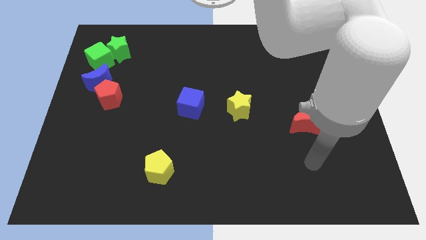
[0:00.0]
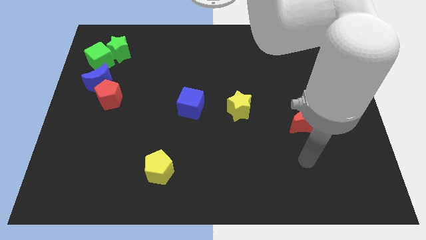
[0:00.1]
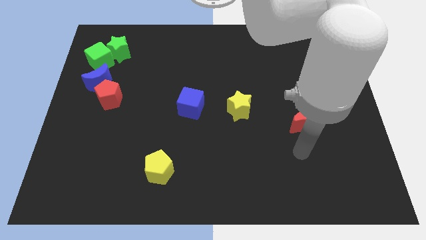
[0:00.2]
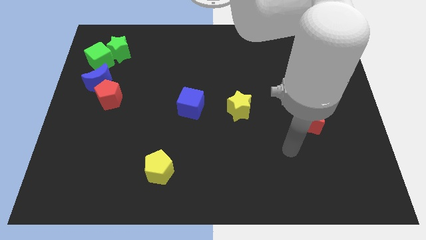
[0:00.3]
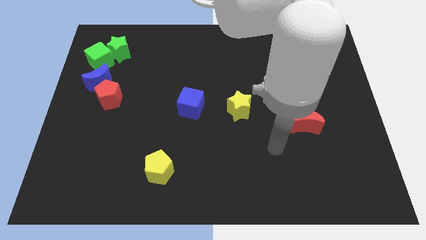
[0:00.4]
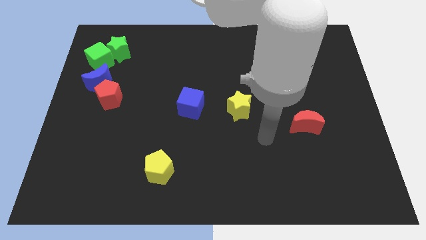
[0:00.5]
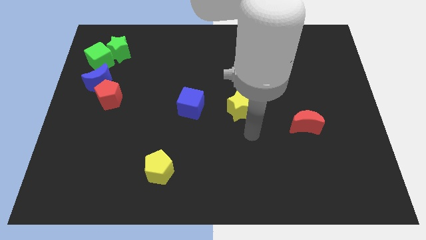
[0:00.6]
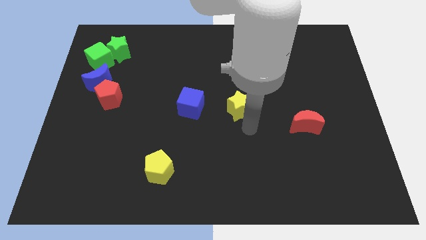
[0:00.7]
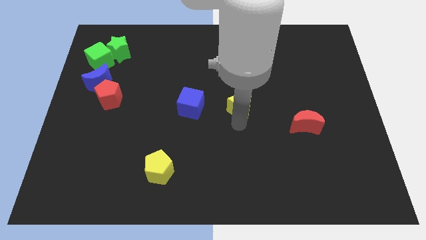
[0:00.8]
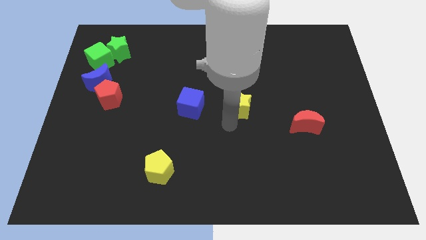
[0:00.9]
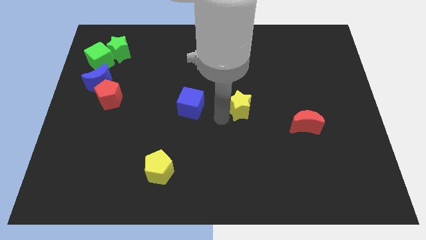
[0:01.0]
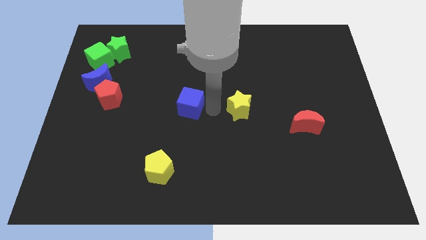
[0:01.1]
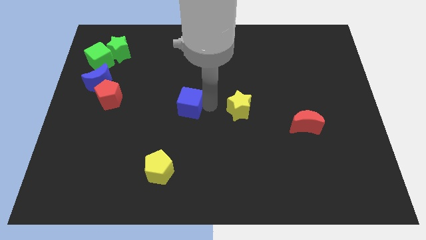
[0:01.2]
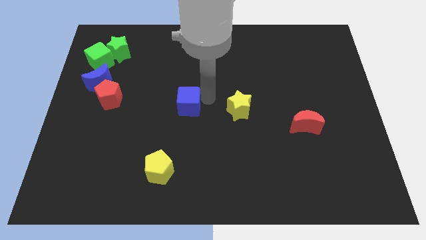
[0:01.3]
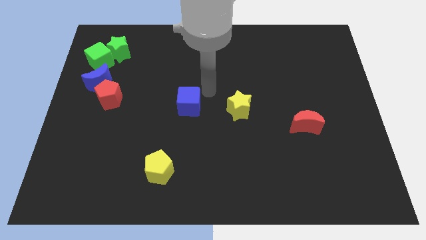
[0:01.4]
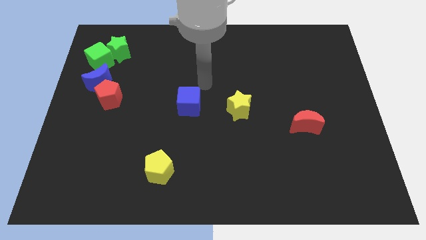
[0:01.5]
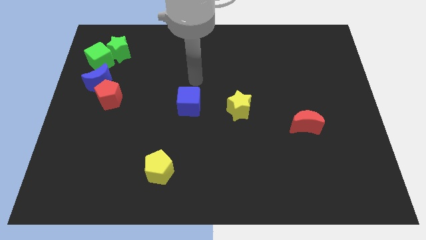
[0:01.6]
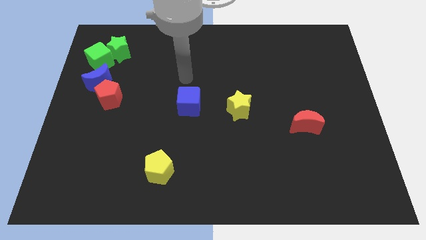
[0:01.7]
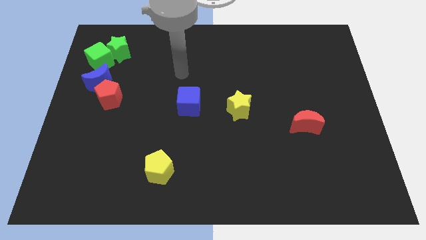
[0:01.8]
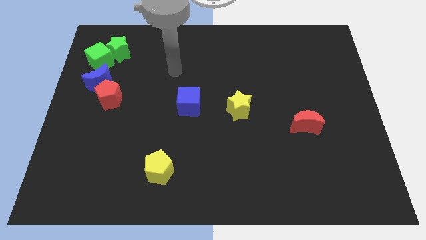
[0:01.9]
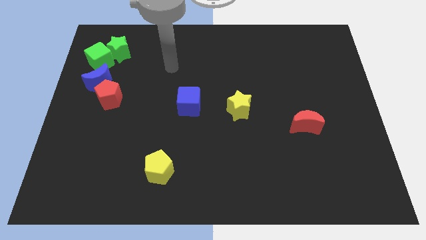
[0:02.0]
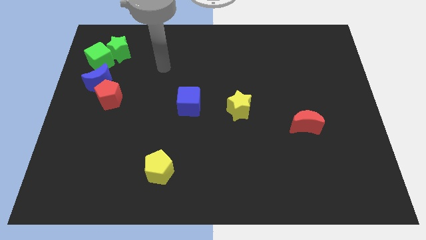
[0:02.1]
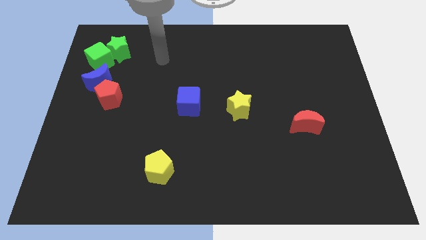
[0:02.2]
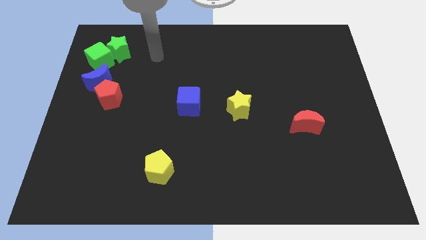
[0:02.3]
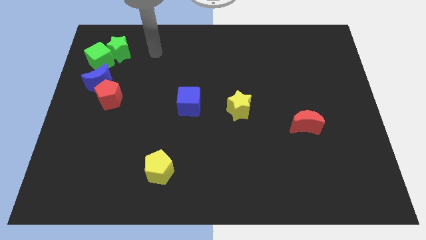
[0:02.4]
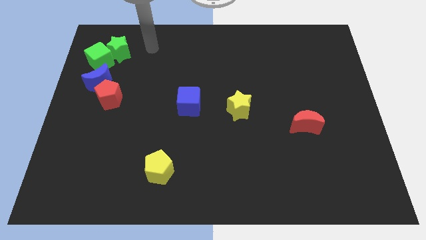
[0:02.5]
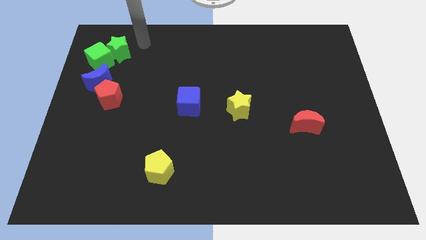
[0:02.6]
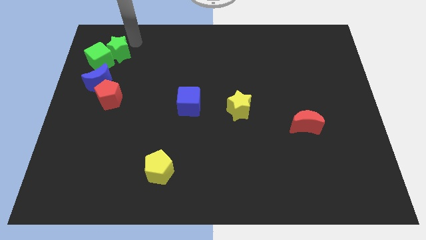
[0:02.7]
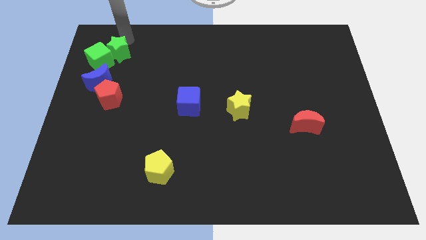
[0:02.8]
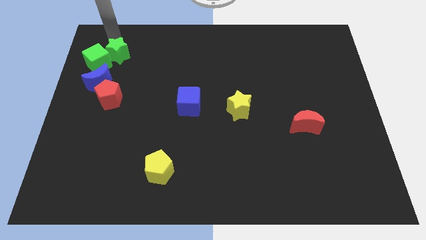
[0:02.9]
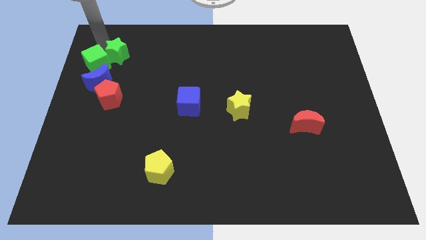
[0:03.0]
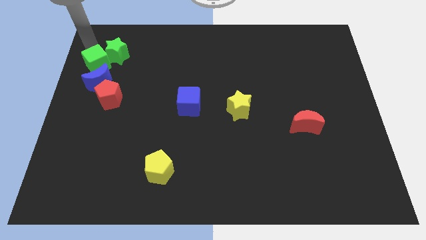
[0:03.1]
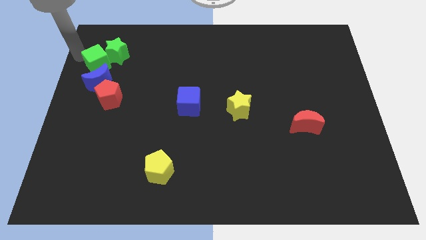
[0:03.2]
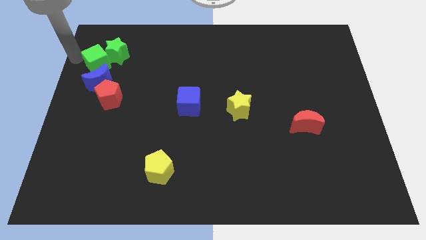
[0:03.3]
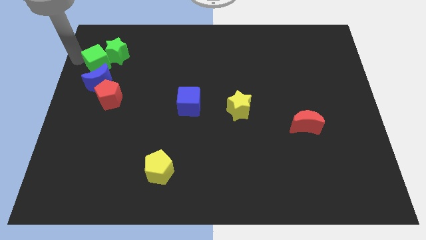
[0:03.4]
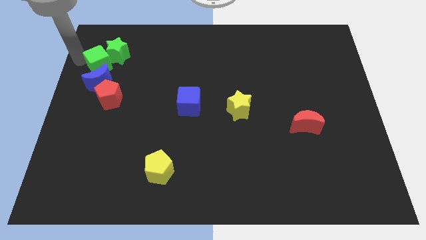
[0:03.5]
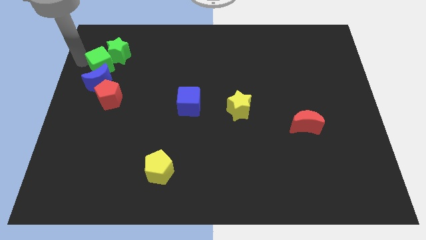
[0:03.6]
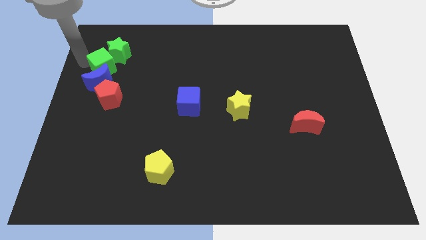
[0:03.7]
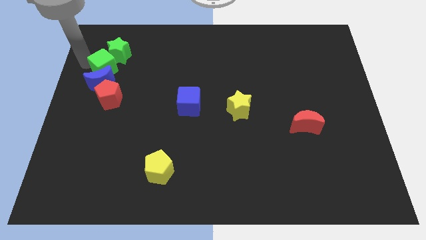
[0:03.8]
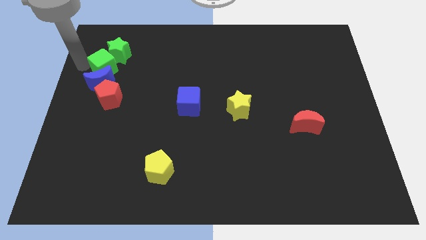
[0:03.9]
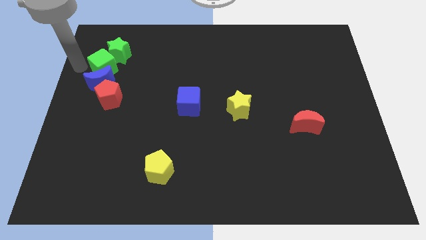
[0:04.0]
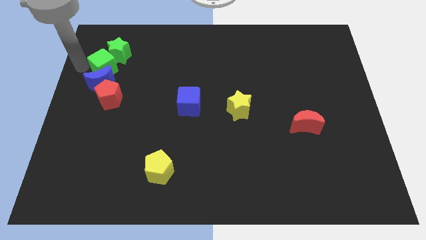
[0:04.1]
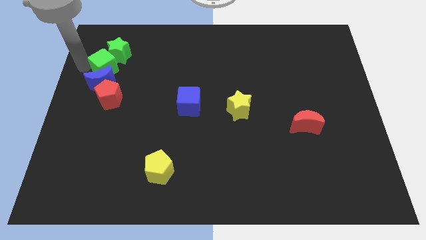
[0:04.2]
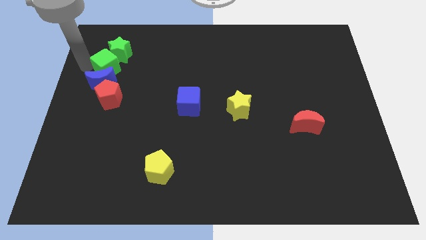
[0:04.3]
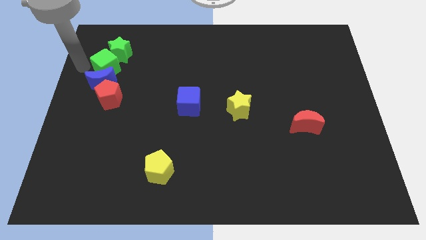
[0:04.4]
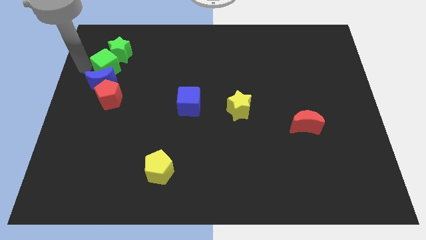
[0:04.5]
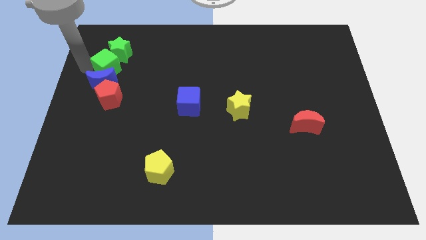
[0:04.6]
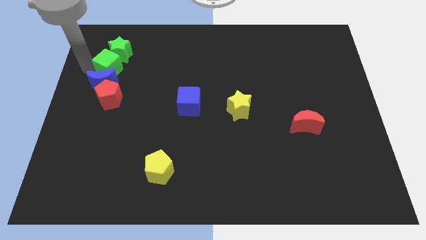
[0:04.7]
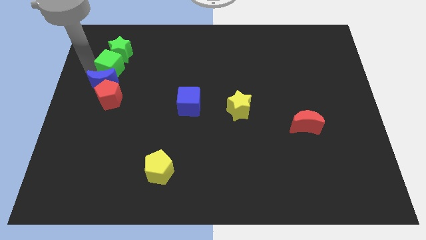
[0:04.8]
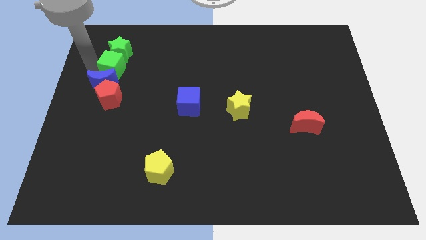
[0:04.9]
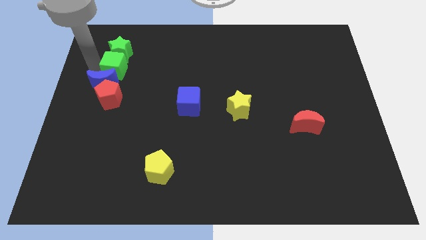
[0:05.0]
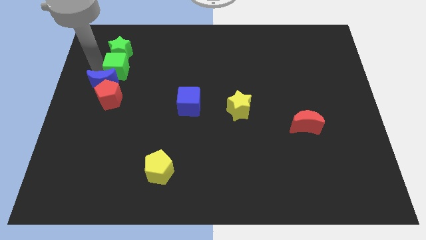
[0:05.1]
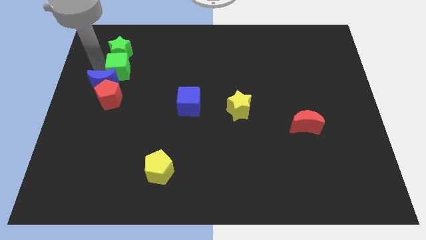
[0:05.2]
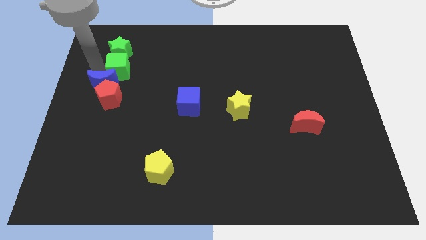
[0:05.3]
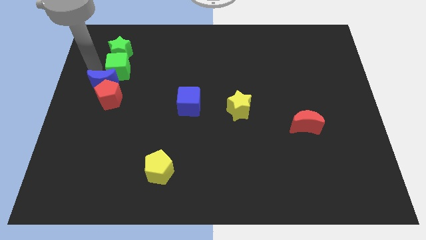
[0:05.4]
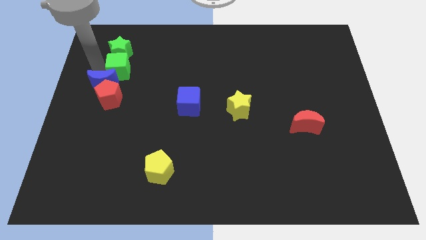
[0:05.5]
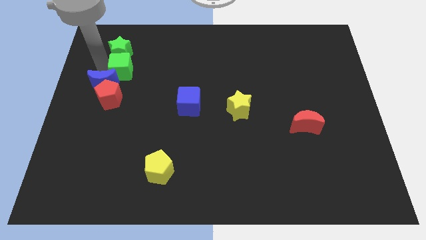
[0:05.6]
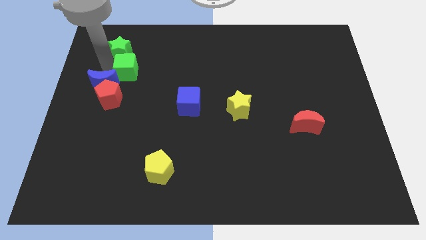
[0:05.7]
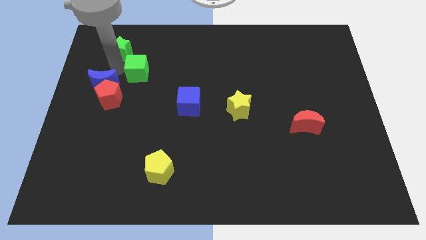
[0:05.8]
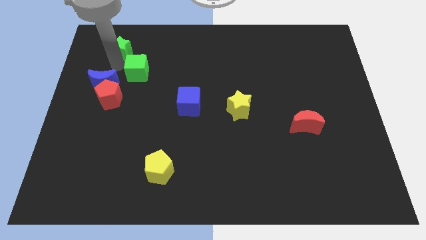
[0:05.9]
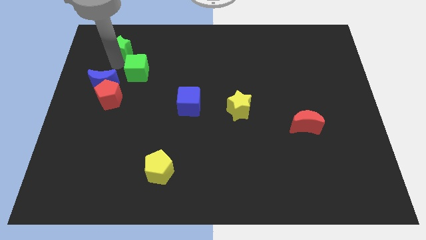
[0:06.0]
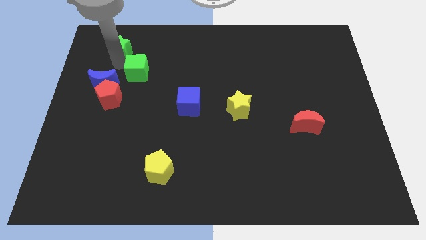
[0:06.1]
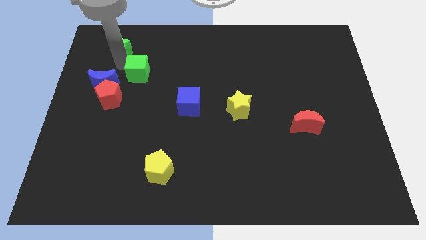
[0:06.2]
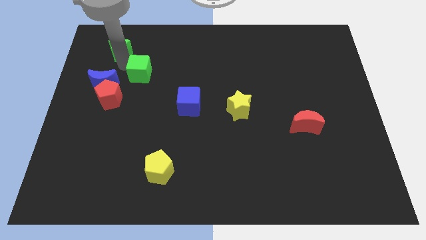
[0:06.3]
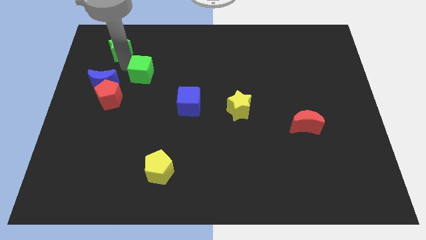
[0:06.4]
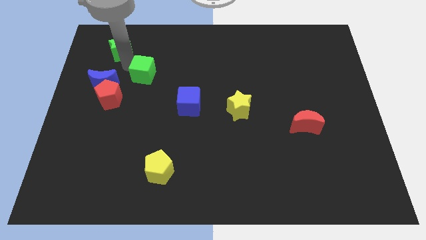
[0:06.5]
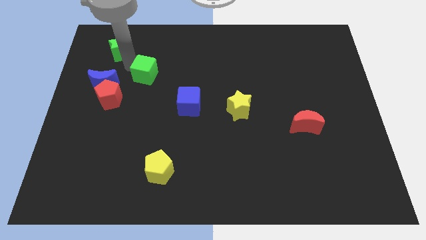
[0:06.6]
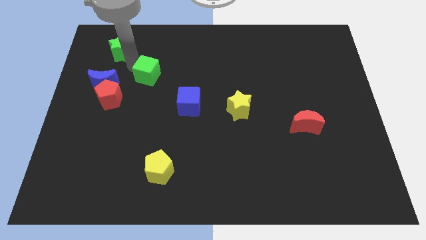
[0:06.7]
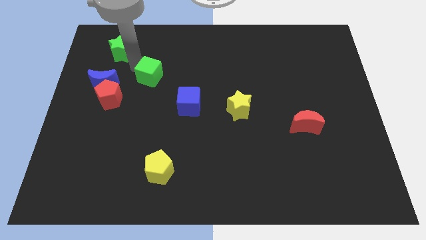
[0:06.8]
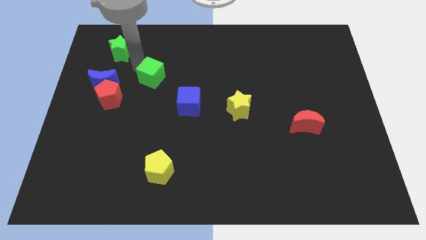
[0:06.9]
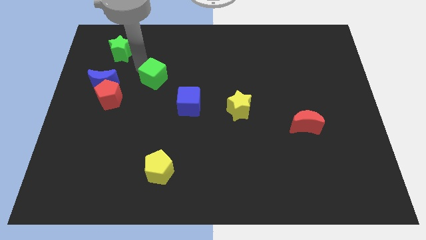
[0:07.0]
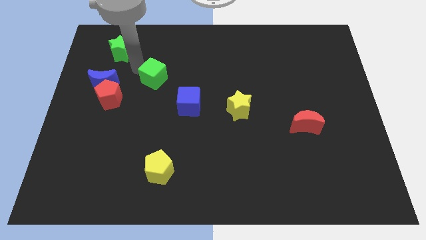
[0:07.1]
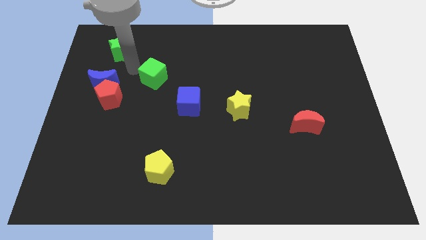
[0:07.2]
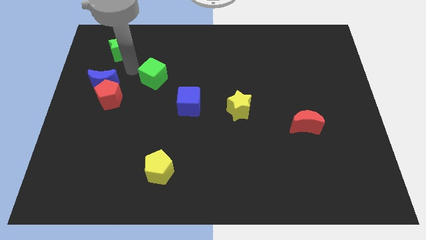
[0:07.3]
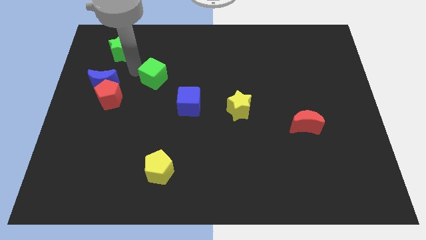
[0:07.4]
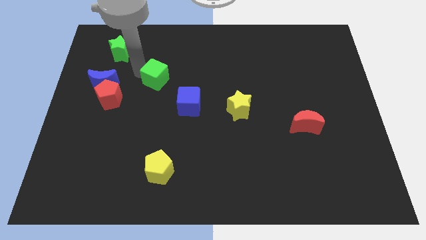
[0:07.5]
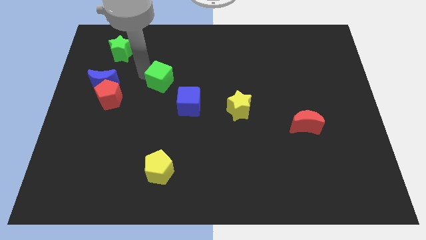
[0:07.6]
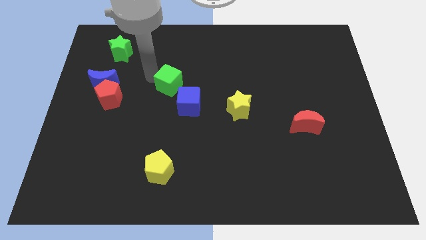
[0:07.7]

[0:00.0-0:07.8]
push the green cube to the center of the board

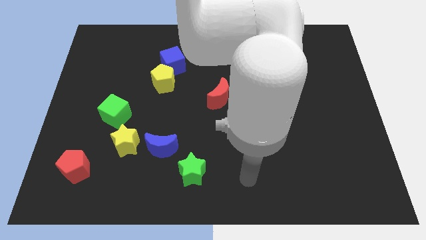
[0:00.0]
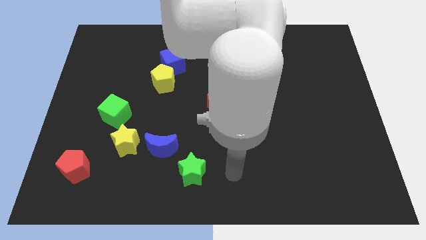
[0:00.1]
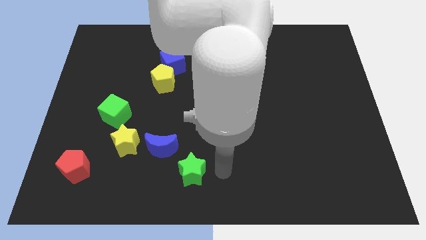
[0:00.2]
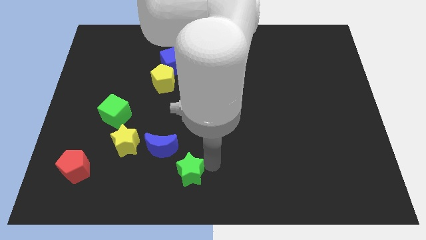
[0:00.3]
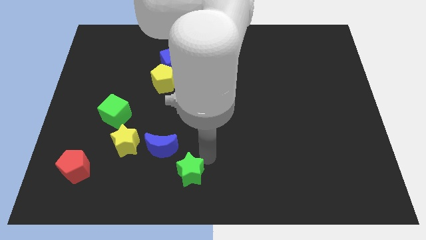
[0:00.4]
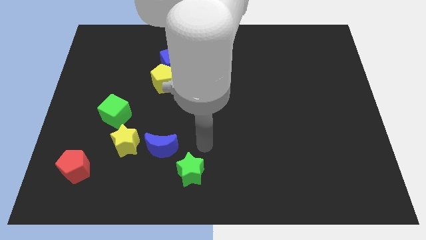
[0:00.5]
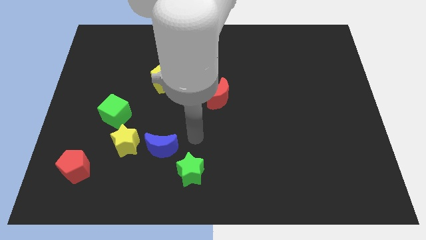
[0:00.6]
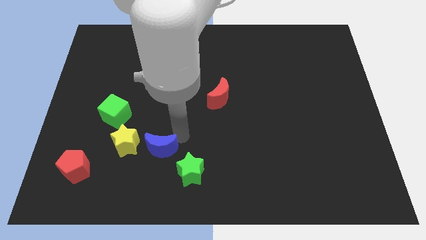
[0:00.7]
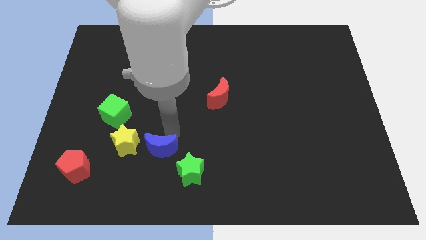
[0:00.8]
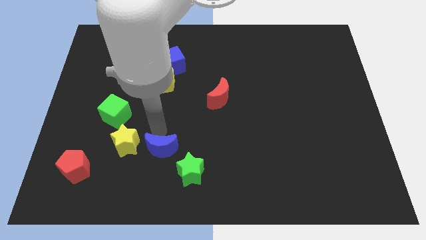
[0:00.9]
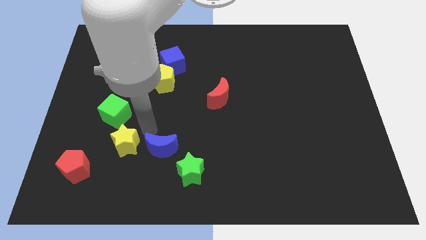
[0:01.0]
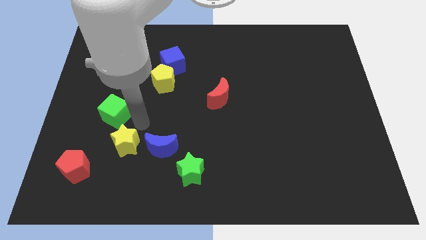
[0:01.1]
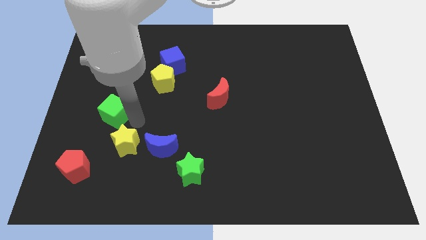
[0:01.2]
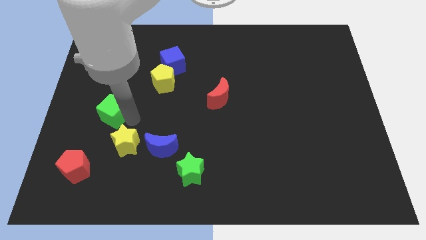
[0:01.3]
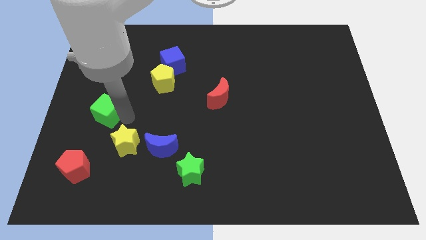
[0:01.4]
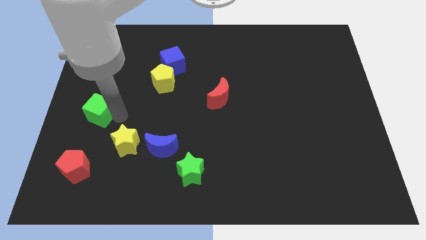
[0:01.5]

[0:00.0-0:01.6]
slide the green cube to the left side
